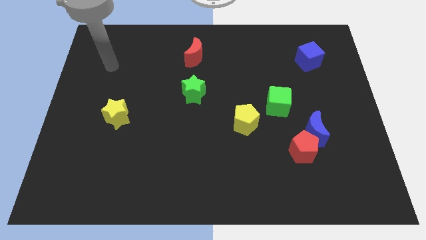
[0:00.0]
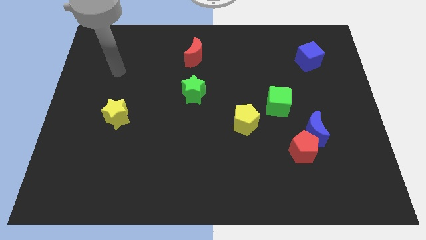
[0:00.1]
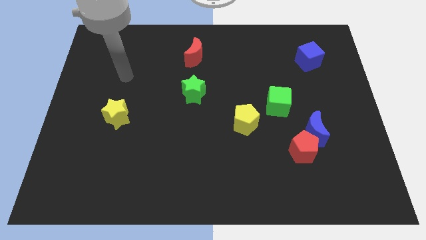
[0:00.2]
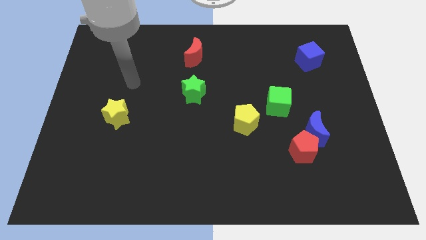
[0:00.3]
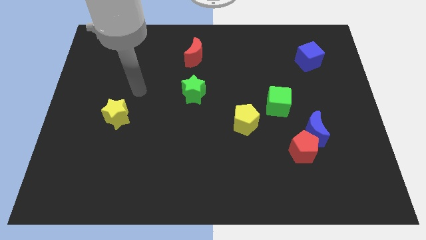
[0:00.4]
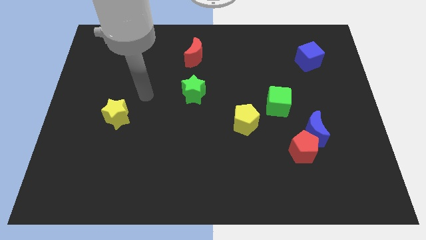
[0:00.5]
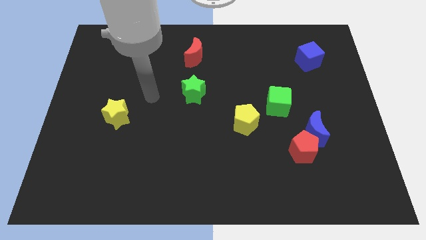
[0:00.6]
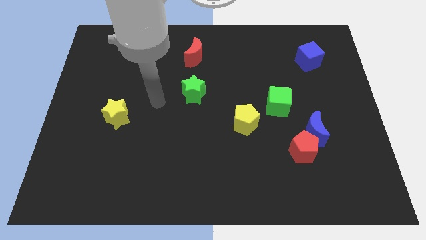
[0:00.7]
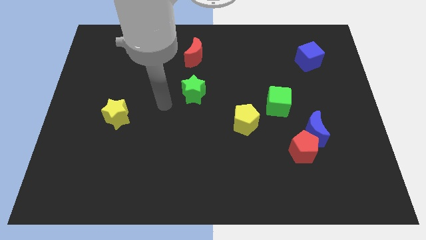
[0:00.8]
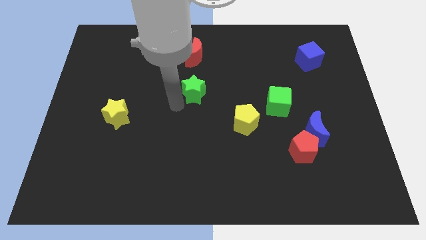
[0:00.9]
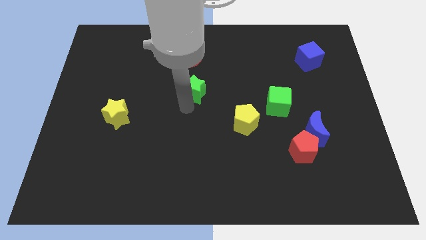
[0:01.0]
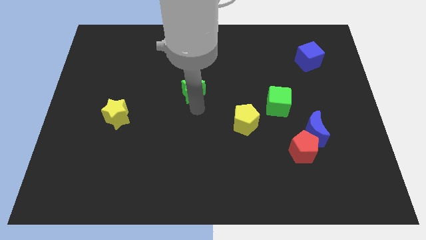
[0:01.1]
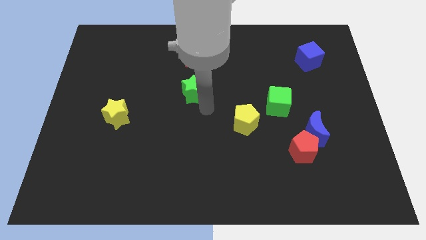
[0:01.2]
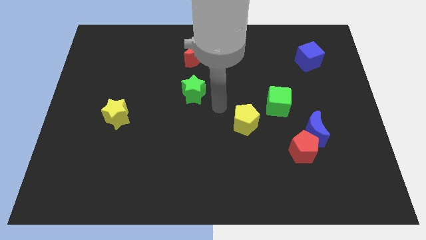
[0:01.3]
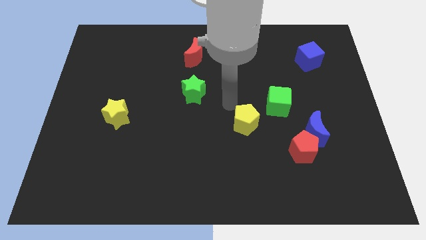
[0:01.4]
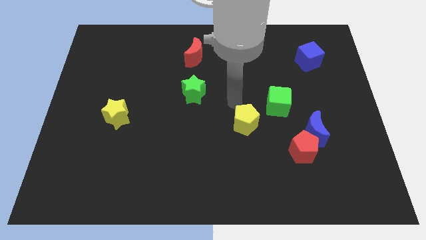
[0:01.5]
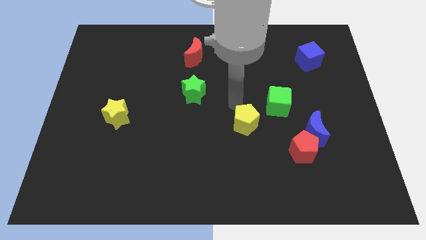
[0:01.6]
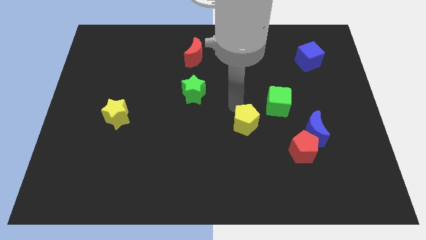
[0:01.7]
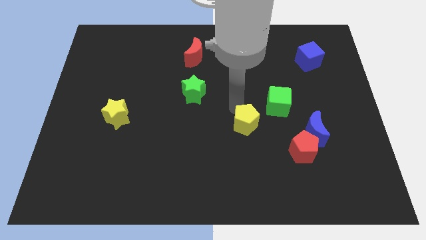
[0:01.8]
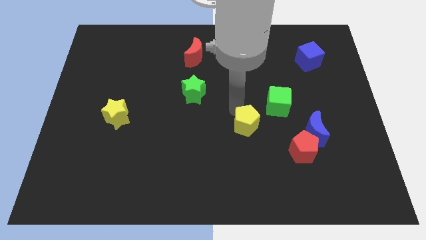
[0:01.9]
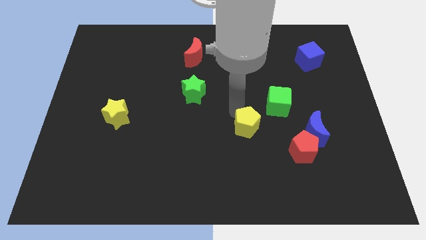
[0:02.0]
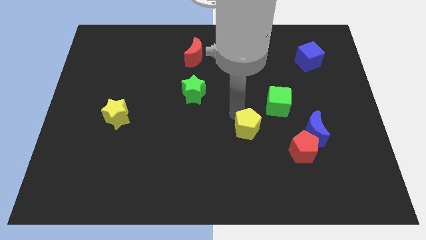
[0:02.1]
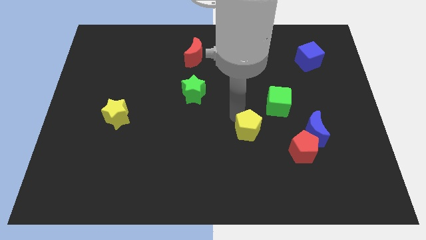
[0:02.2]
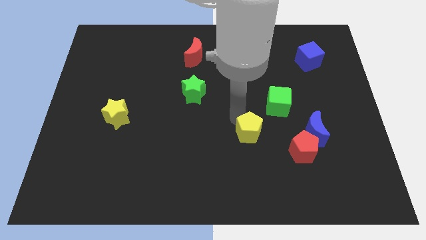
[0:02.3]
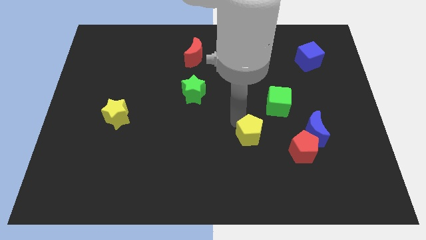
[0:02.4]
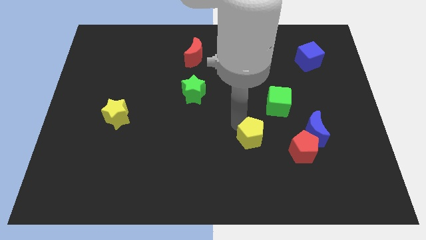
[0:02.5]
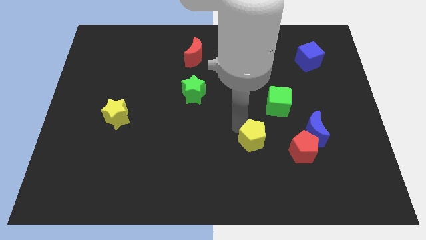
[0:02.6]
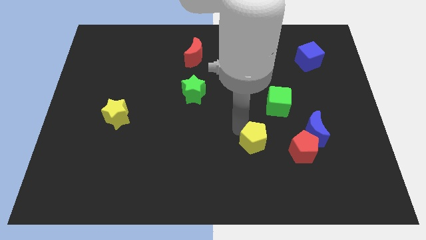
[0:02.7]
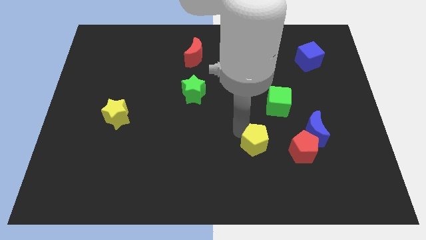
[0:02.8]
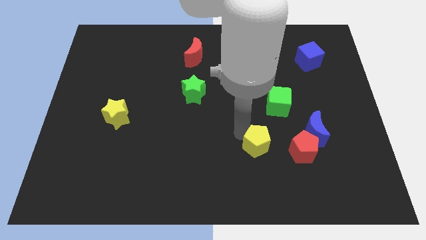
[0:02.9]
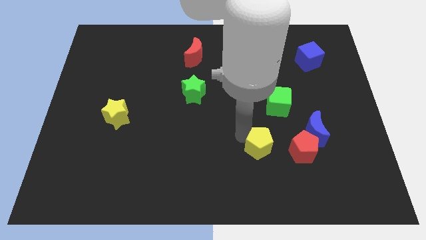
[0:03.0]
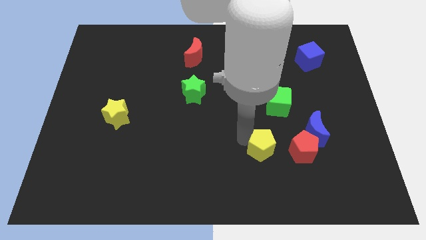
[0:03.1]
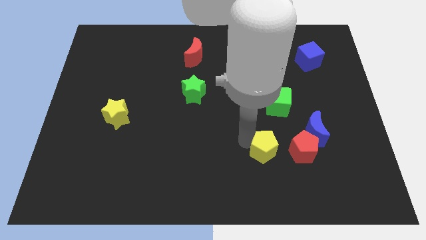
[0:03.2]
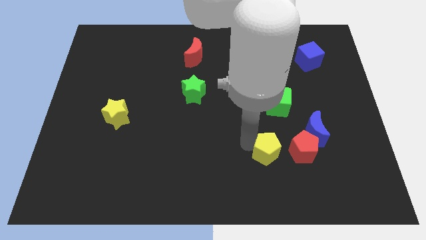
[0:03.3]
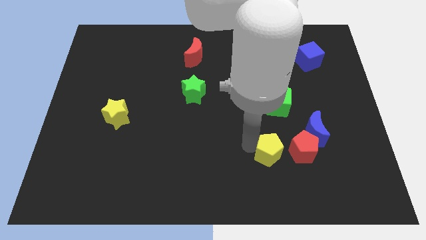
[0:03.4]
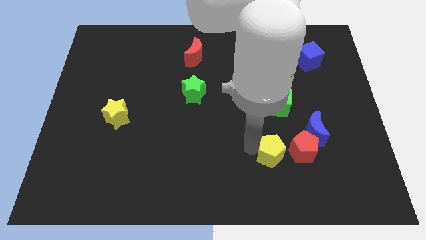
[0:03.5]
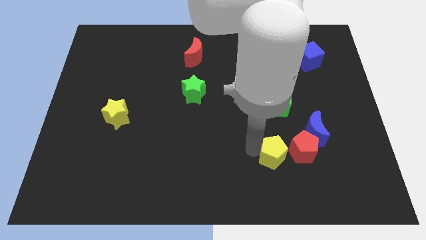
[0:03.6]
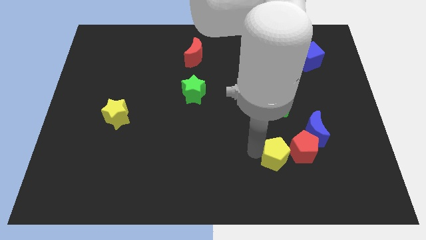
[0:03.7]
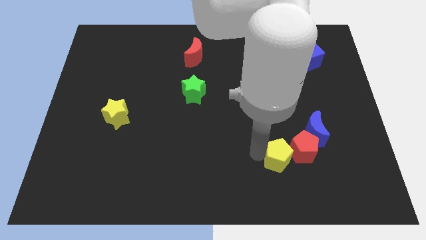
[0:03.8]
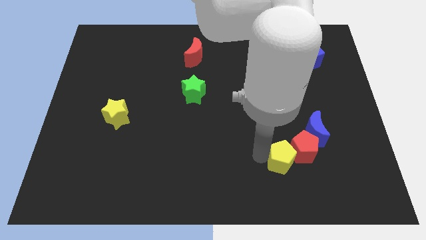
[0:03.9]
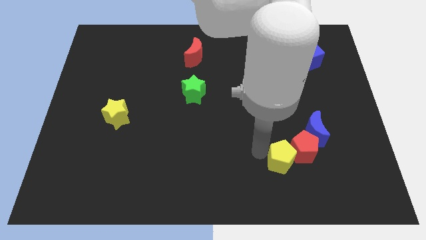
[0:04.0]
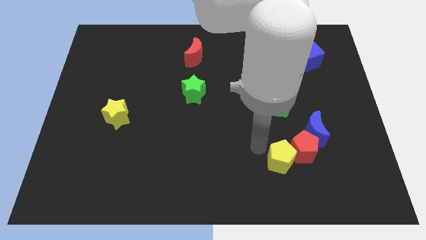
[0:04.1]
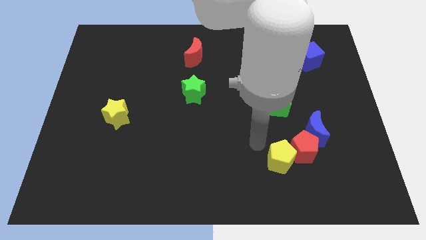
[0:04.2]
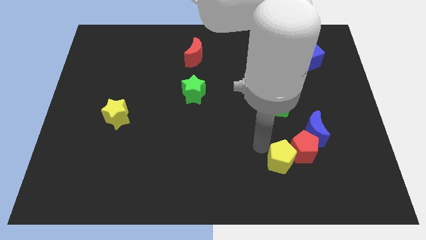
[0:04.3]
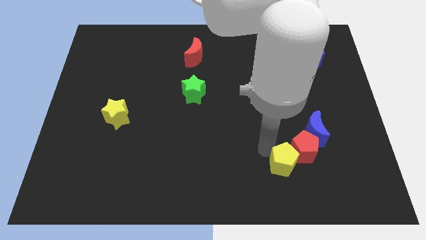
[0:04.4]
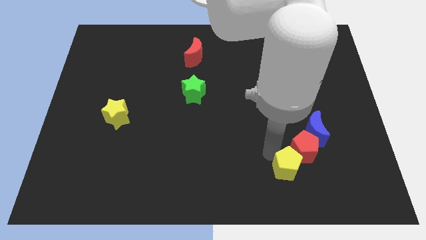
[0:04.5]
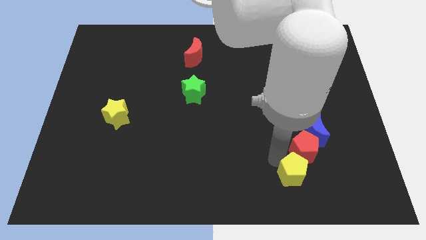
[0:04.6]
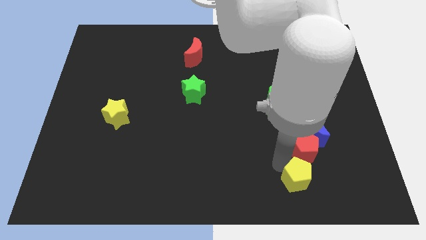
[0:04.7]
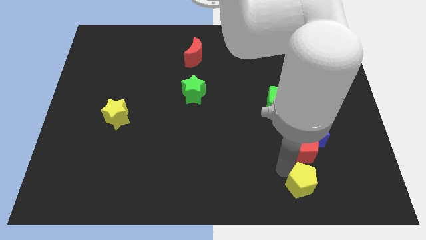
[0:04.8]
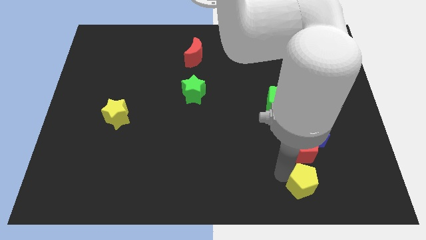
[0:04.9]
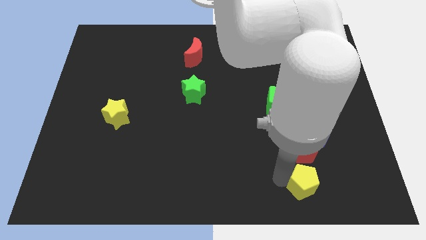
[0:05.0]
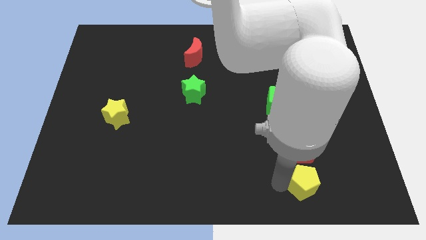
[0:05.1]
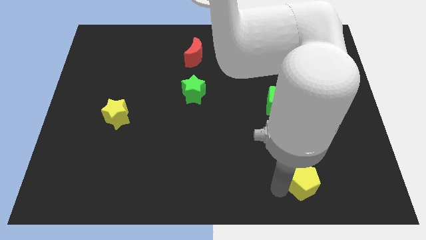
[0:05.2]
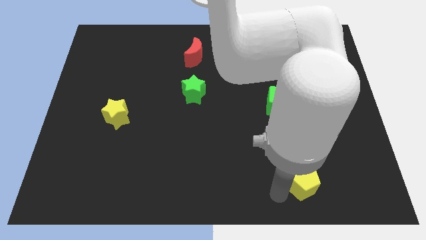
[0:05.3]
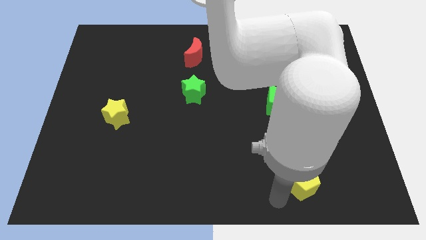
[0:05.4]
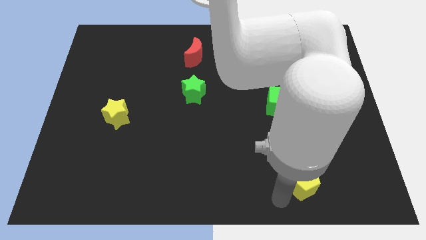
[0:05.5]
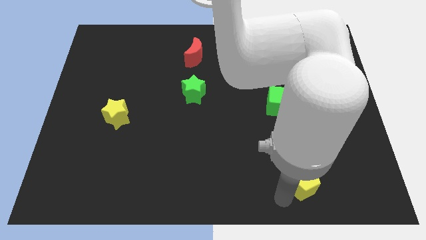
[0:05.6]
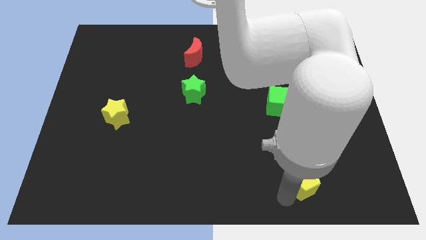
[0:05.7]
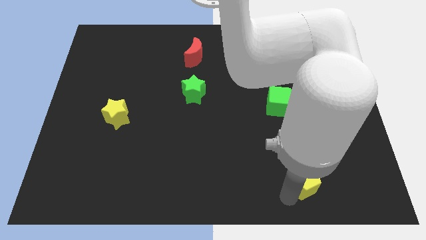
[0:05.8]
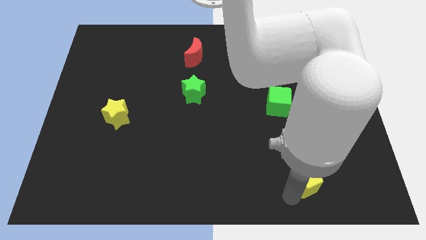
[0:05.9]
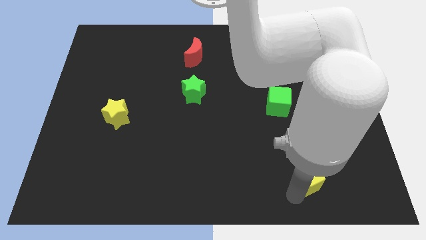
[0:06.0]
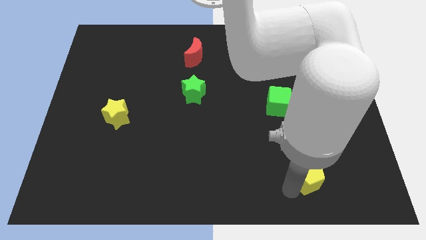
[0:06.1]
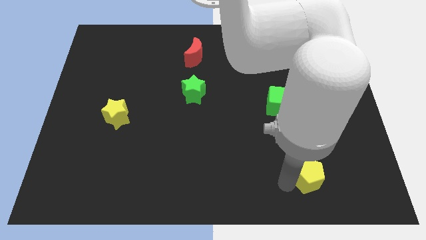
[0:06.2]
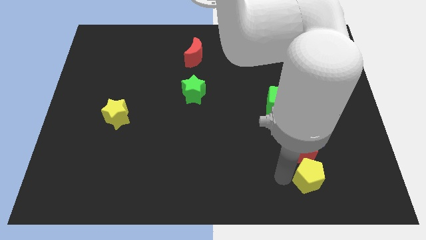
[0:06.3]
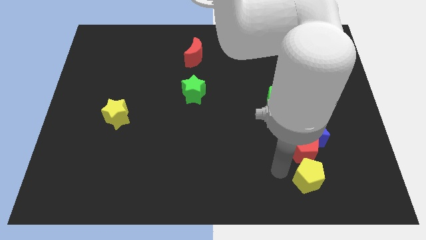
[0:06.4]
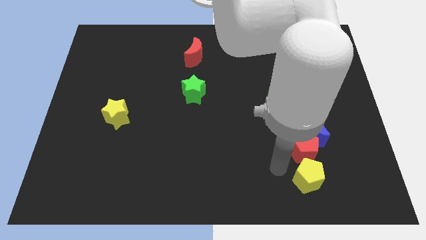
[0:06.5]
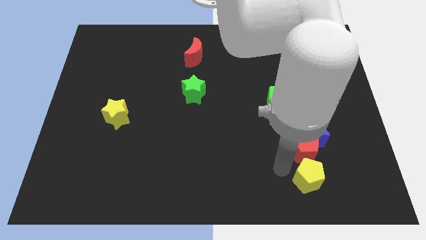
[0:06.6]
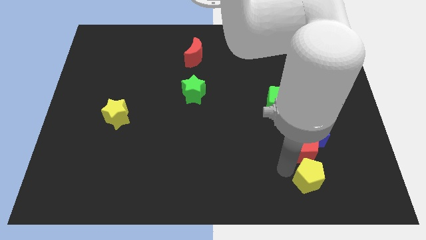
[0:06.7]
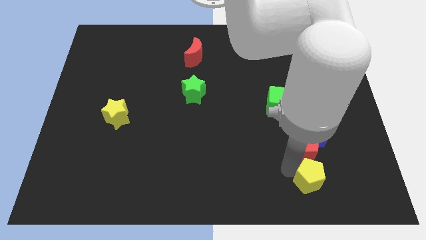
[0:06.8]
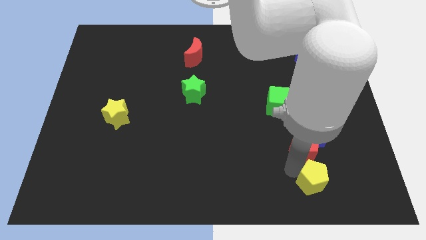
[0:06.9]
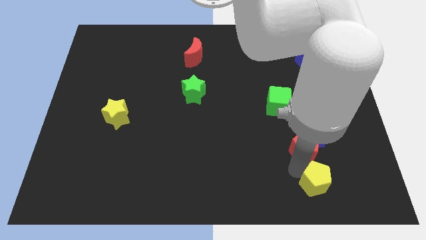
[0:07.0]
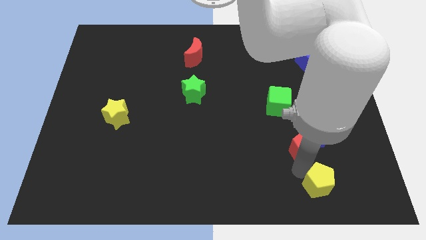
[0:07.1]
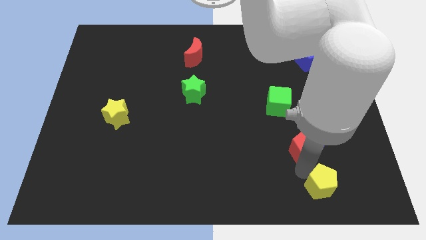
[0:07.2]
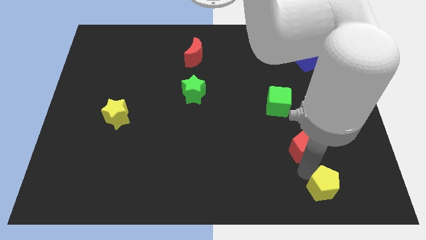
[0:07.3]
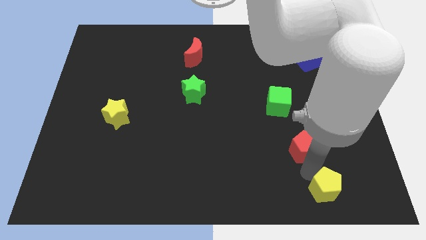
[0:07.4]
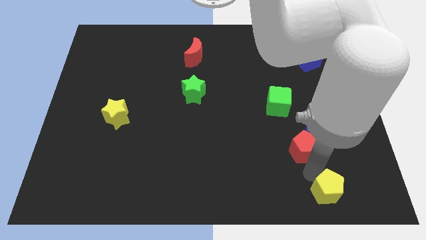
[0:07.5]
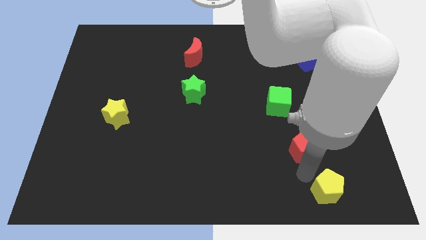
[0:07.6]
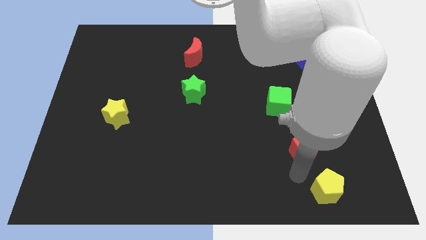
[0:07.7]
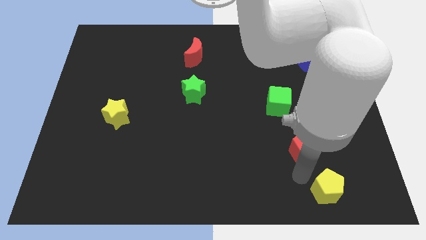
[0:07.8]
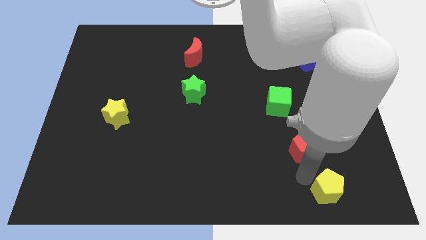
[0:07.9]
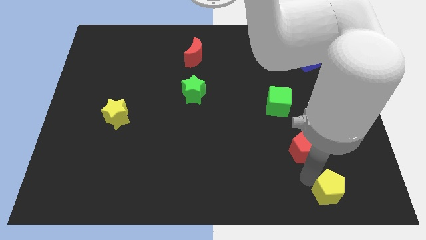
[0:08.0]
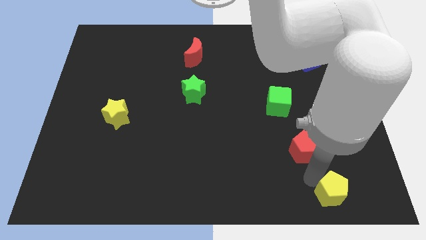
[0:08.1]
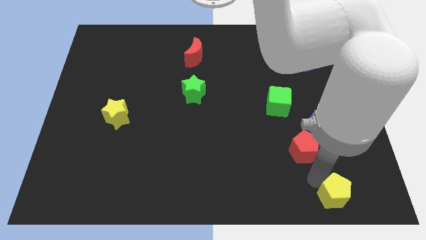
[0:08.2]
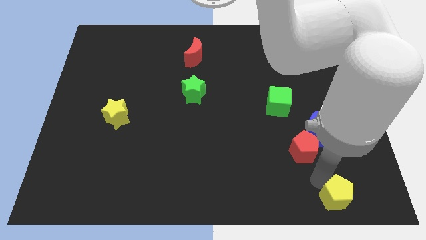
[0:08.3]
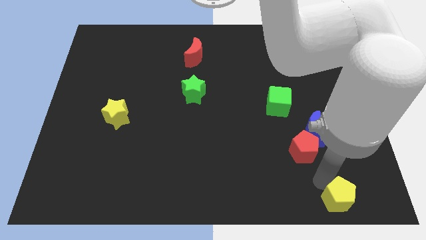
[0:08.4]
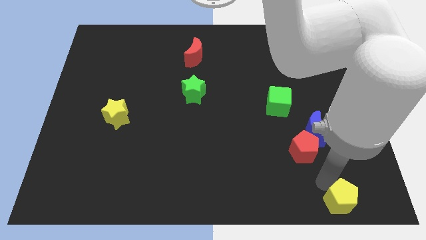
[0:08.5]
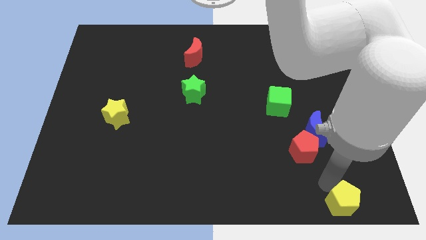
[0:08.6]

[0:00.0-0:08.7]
move the yellow pentagon to the bottom right corner
